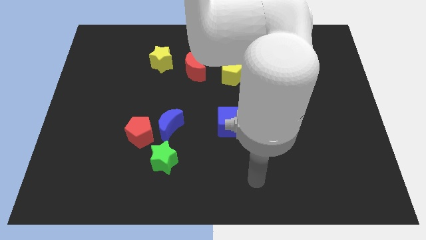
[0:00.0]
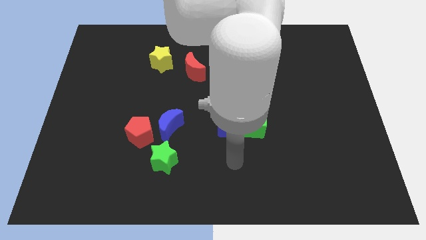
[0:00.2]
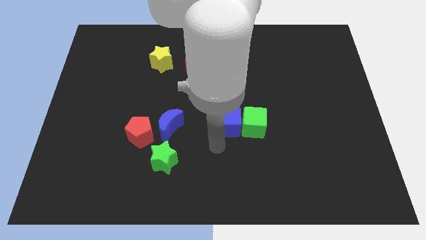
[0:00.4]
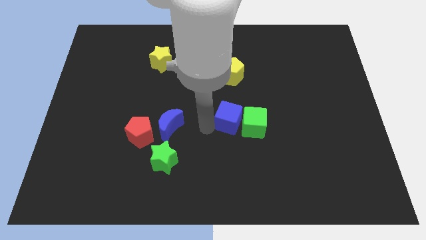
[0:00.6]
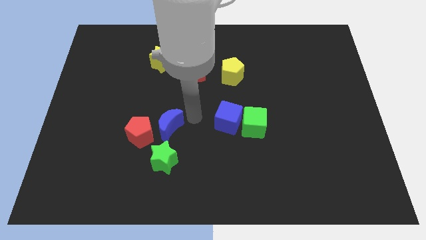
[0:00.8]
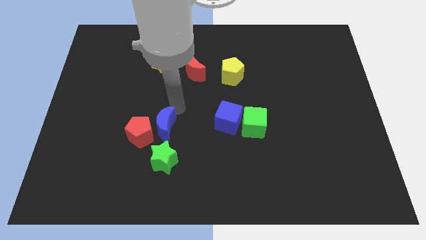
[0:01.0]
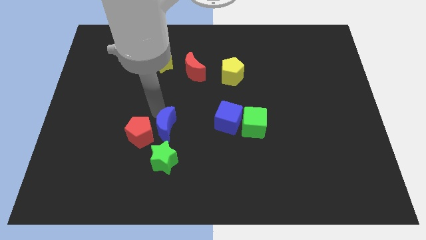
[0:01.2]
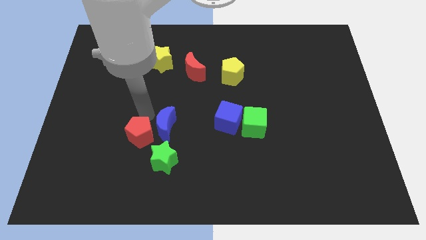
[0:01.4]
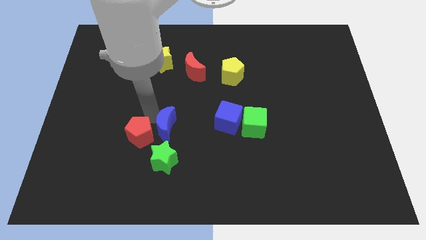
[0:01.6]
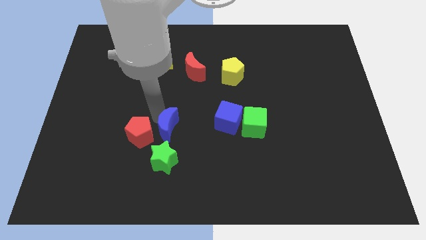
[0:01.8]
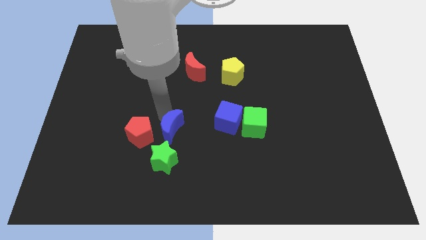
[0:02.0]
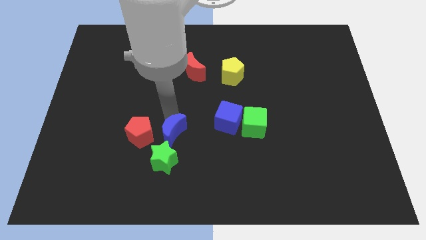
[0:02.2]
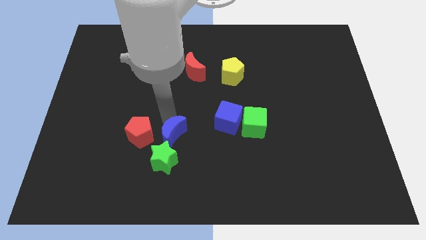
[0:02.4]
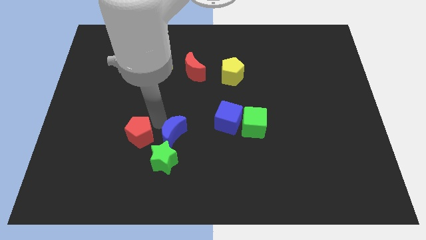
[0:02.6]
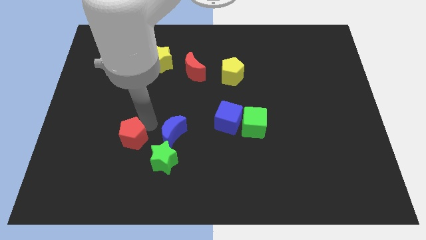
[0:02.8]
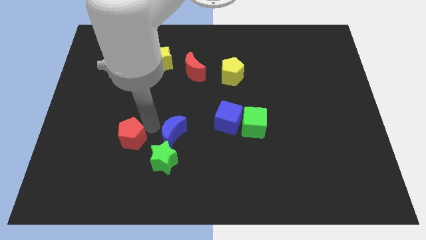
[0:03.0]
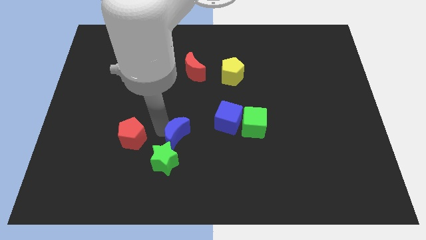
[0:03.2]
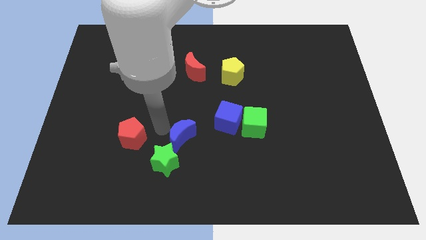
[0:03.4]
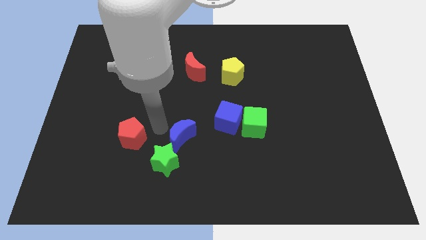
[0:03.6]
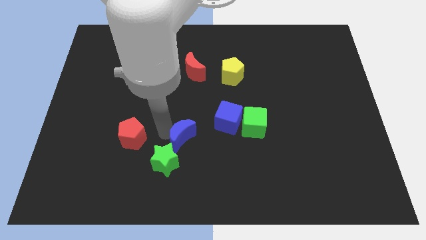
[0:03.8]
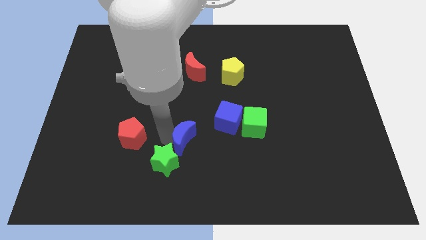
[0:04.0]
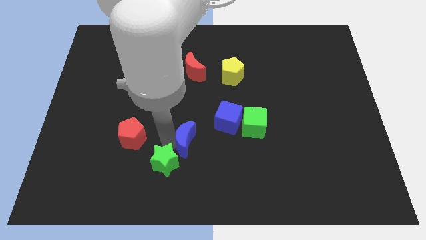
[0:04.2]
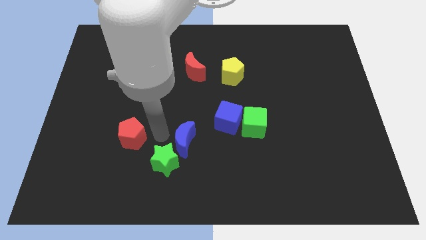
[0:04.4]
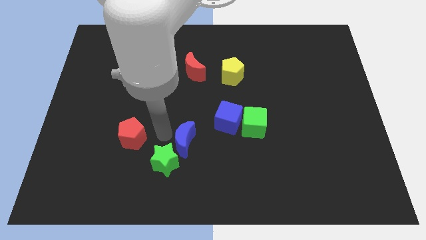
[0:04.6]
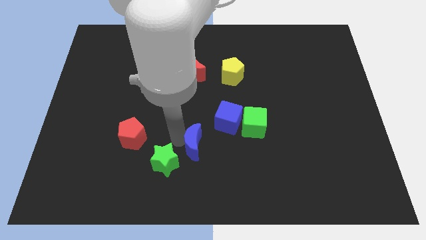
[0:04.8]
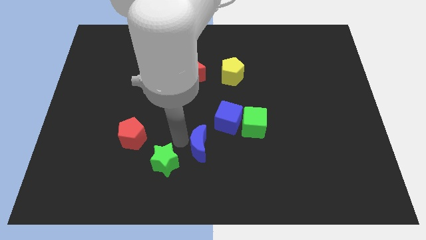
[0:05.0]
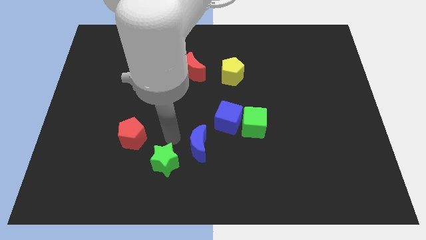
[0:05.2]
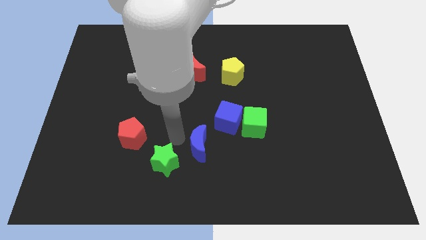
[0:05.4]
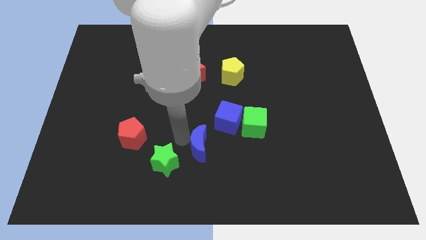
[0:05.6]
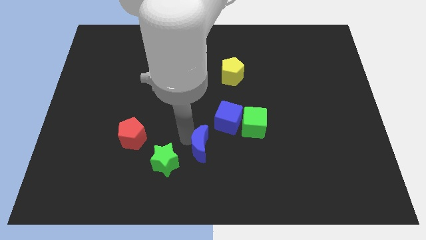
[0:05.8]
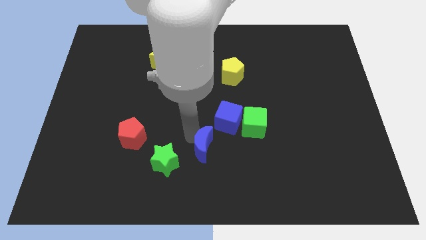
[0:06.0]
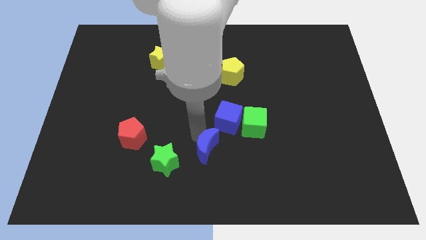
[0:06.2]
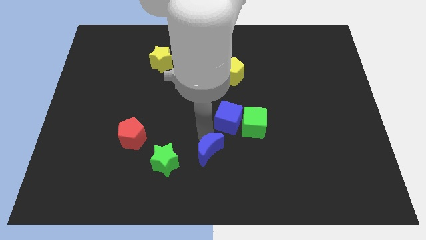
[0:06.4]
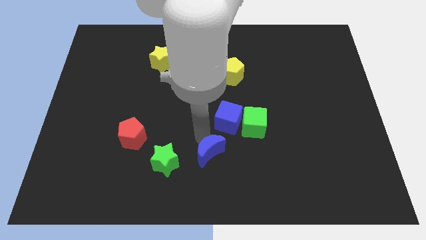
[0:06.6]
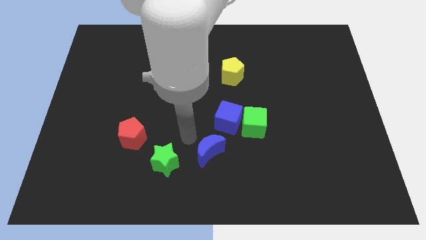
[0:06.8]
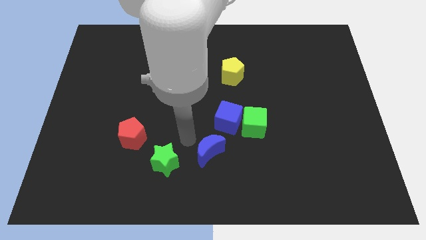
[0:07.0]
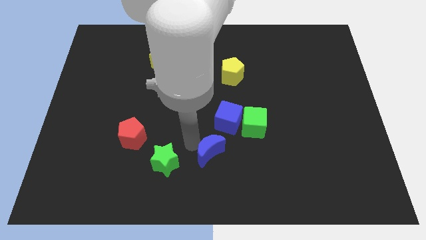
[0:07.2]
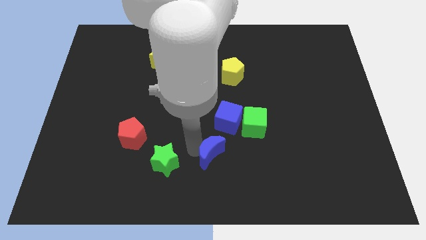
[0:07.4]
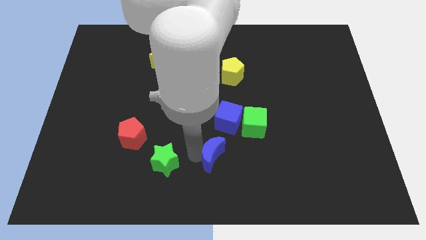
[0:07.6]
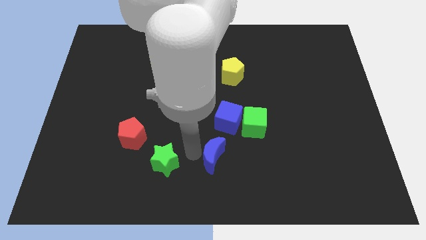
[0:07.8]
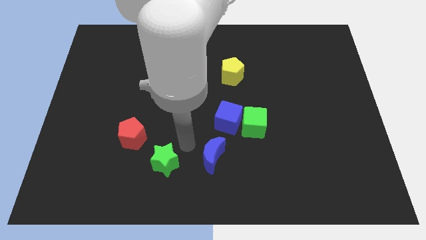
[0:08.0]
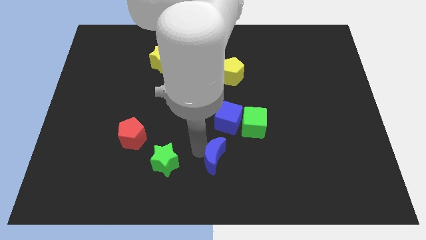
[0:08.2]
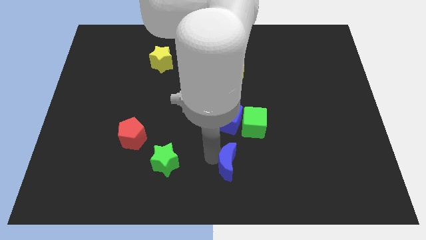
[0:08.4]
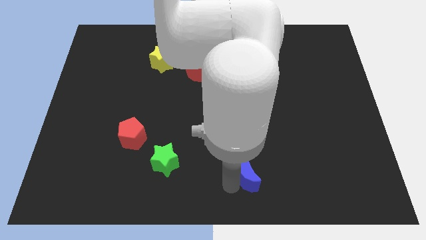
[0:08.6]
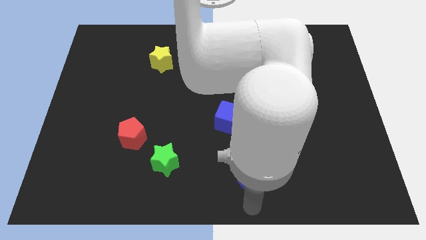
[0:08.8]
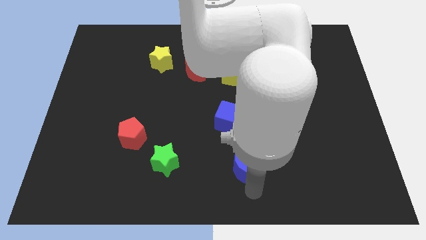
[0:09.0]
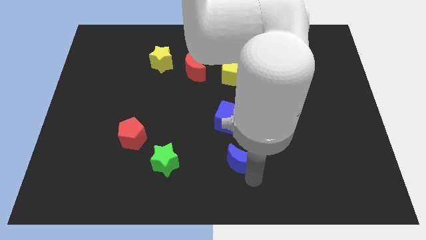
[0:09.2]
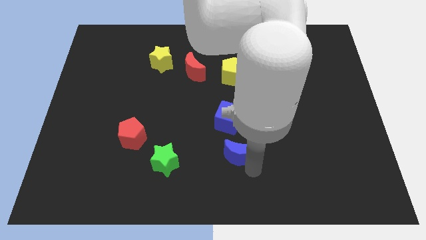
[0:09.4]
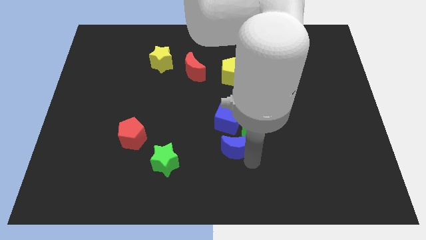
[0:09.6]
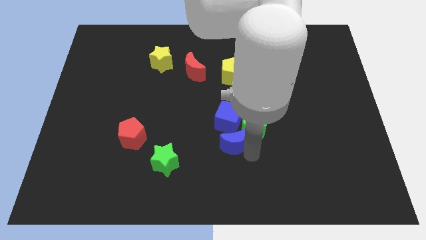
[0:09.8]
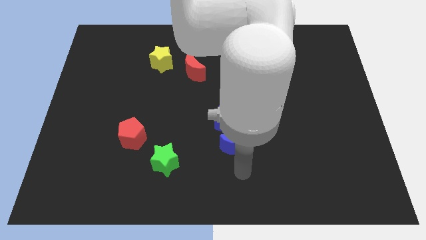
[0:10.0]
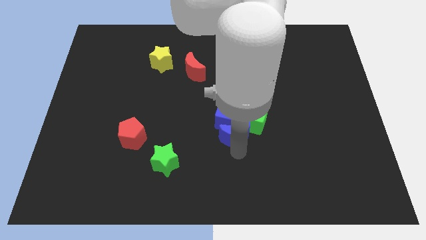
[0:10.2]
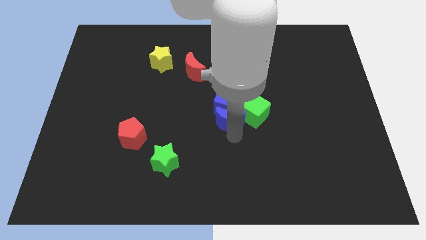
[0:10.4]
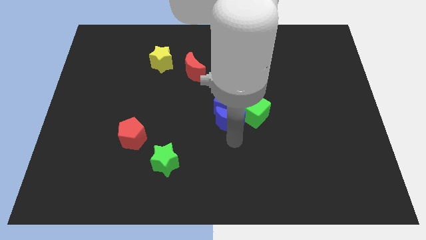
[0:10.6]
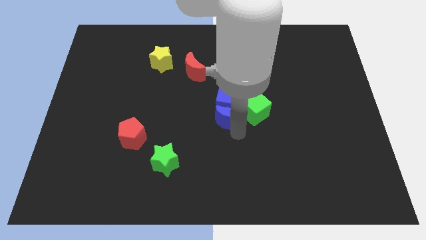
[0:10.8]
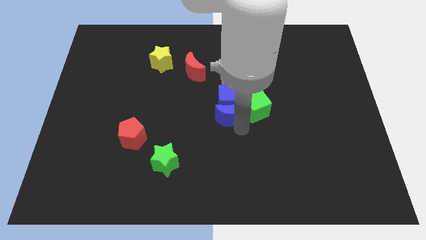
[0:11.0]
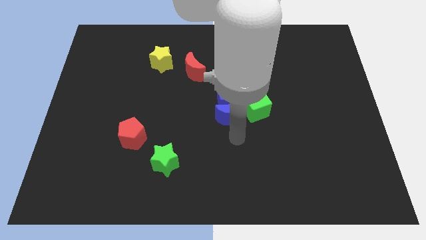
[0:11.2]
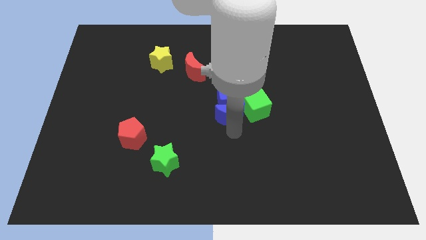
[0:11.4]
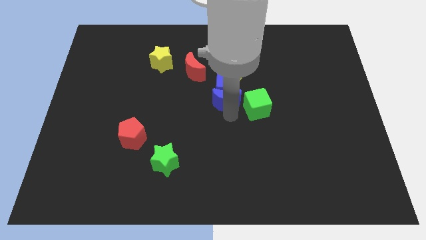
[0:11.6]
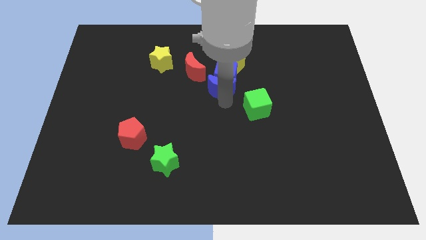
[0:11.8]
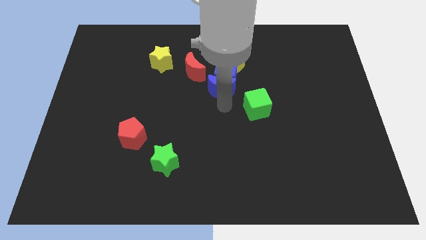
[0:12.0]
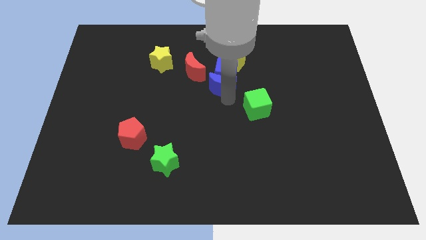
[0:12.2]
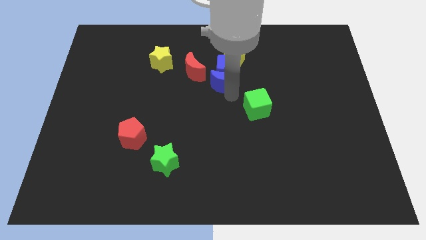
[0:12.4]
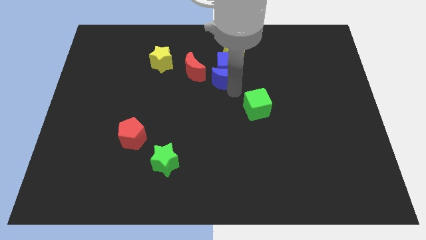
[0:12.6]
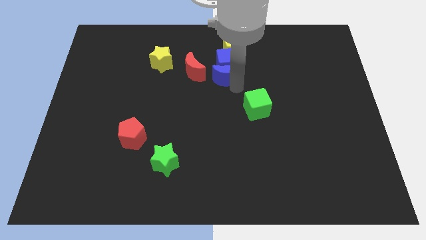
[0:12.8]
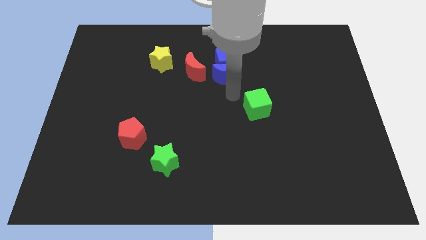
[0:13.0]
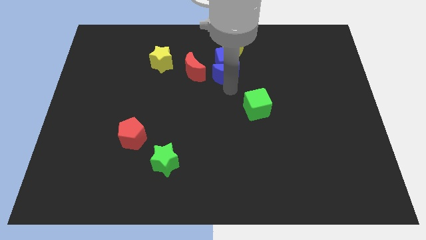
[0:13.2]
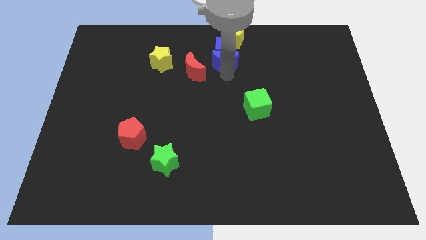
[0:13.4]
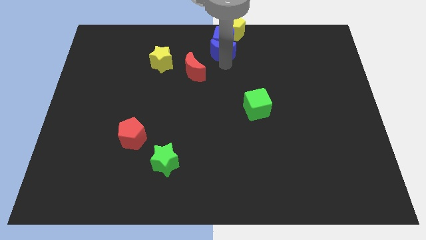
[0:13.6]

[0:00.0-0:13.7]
slide the blue moon to the top side
